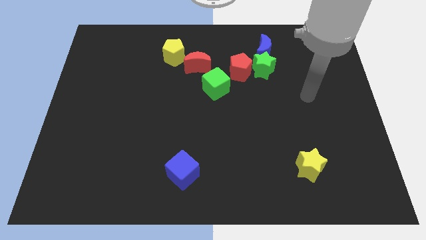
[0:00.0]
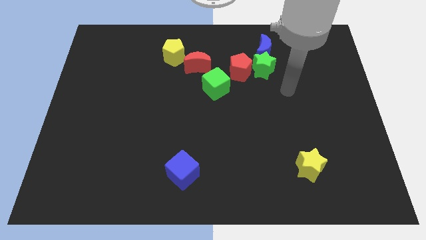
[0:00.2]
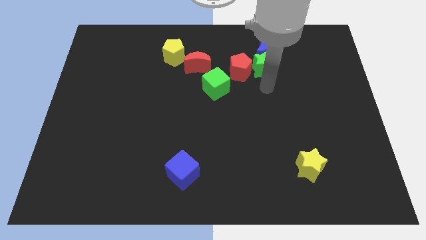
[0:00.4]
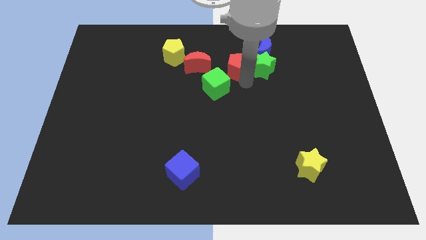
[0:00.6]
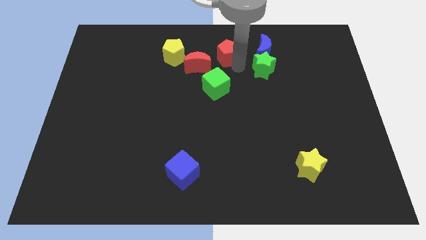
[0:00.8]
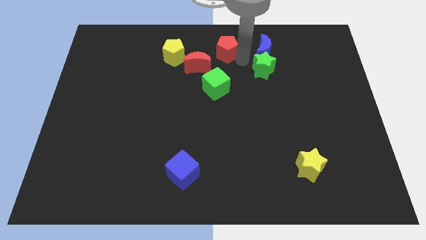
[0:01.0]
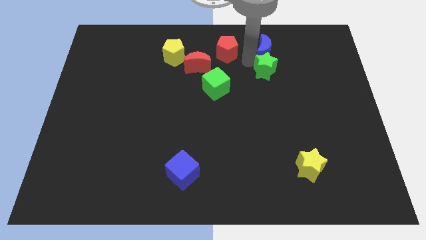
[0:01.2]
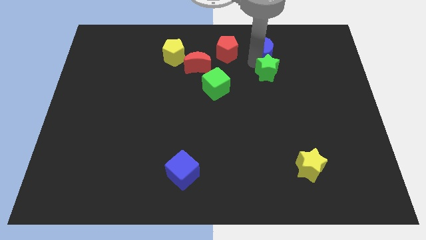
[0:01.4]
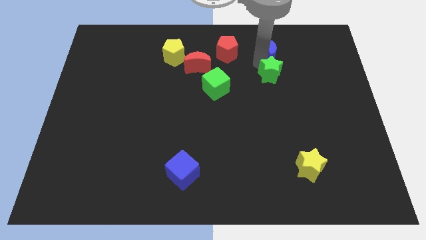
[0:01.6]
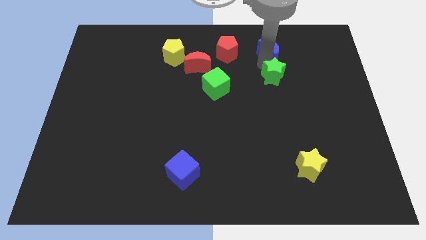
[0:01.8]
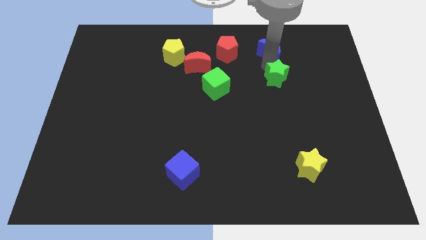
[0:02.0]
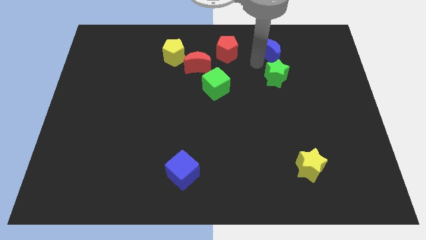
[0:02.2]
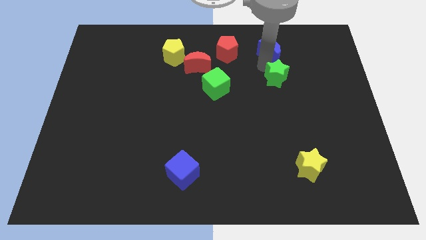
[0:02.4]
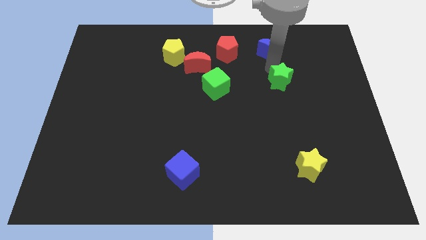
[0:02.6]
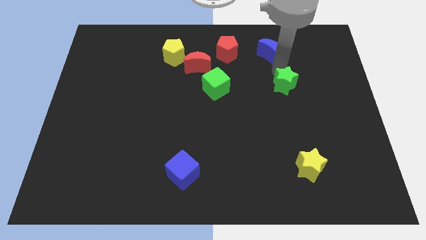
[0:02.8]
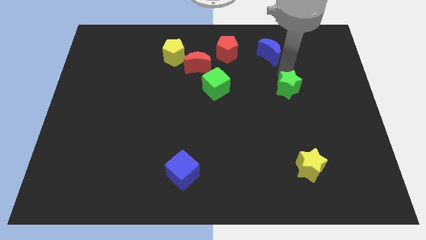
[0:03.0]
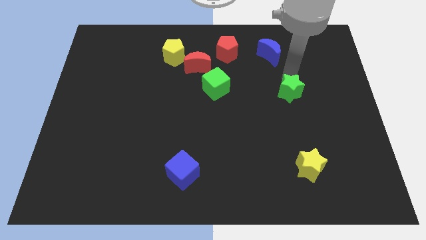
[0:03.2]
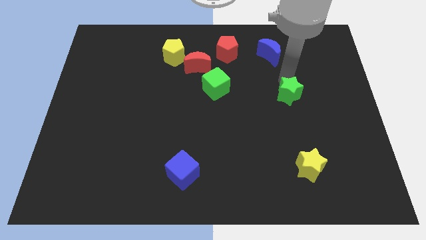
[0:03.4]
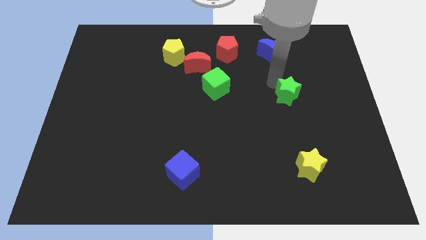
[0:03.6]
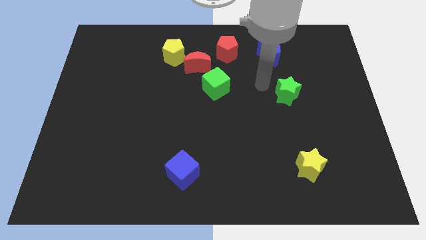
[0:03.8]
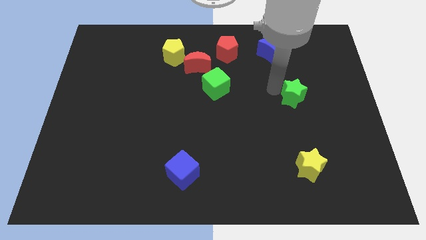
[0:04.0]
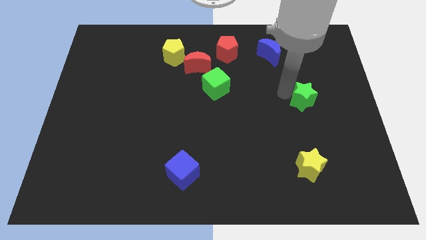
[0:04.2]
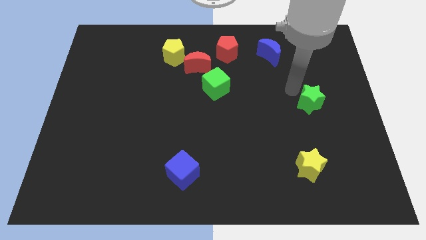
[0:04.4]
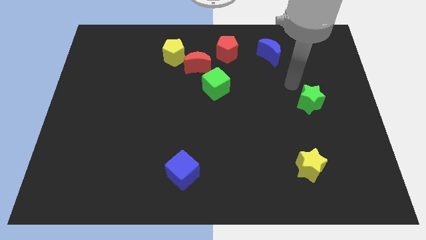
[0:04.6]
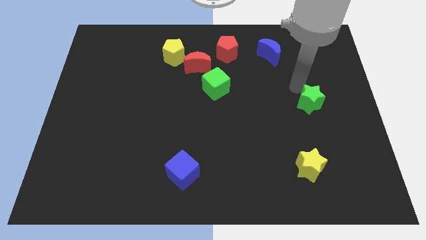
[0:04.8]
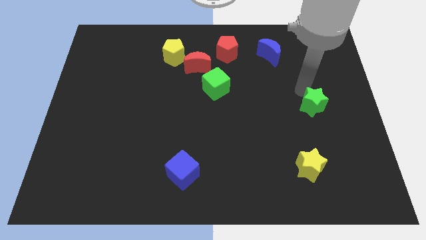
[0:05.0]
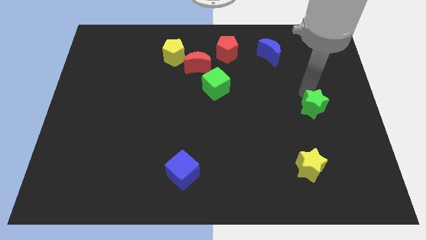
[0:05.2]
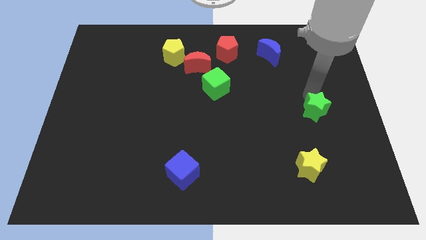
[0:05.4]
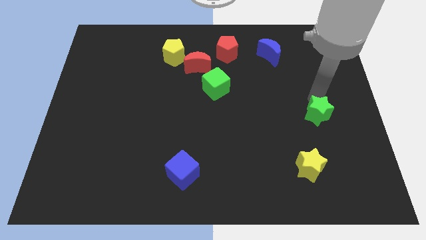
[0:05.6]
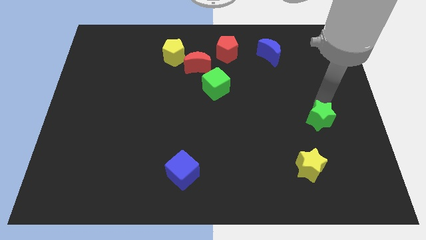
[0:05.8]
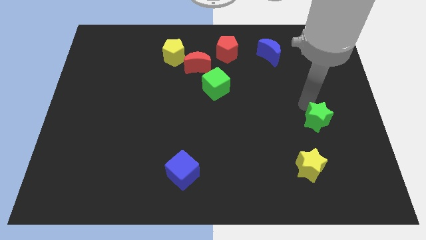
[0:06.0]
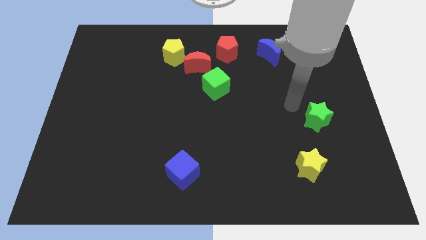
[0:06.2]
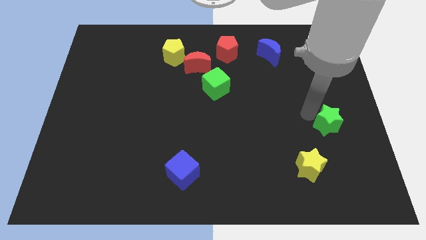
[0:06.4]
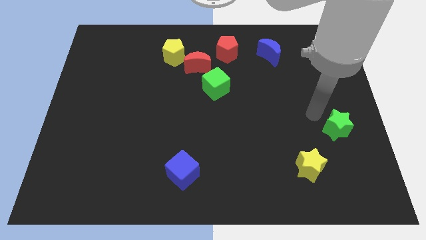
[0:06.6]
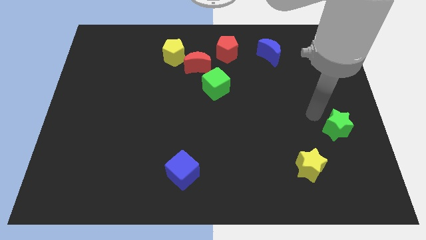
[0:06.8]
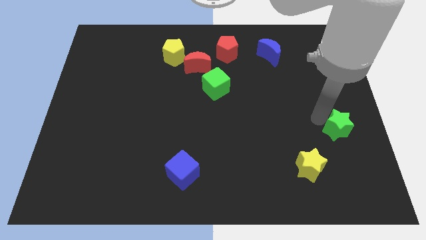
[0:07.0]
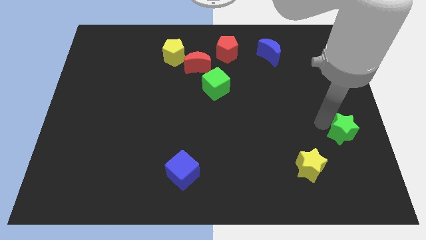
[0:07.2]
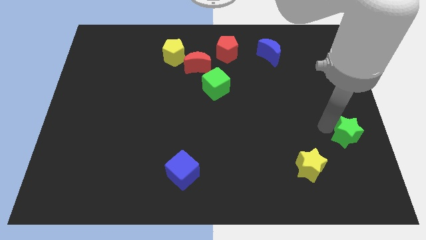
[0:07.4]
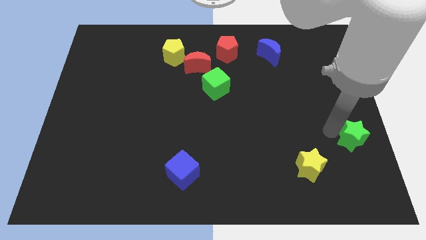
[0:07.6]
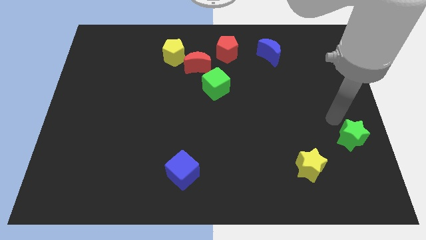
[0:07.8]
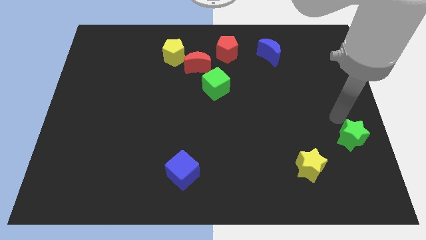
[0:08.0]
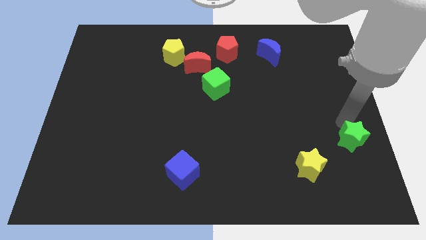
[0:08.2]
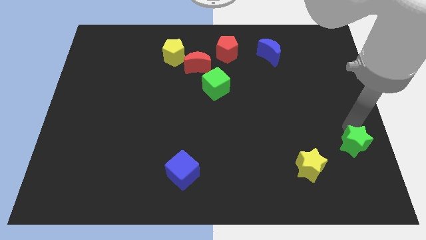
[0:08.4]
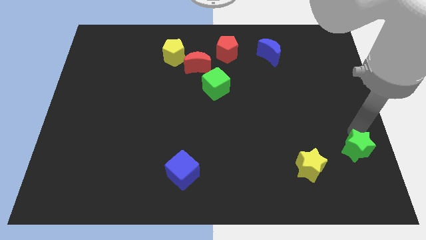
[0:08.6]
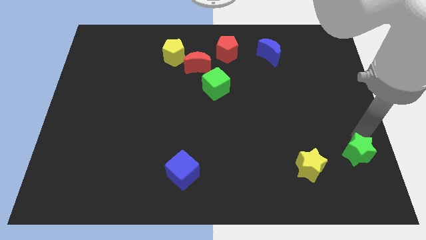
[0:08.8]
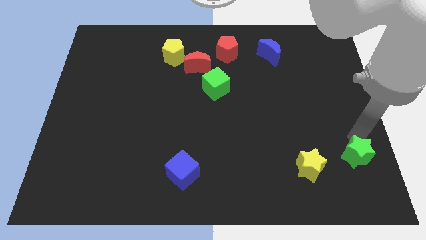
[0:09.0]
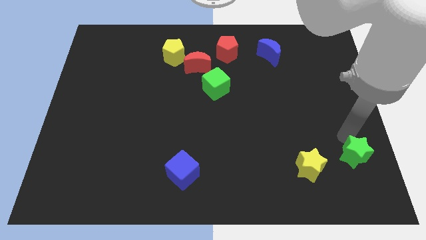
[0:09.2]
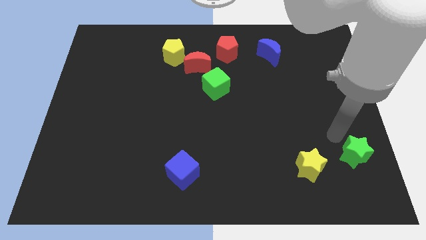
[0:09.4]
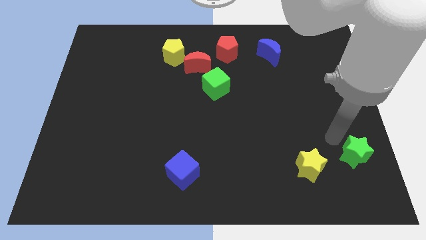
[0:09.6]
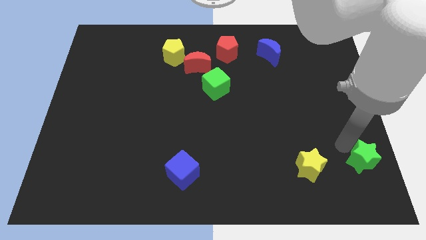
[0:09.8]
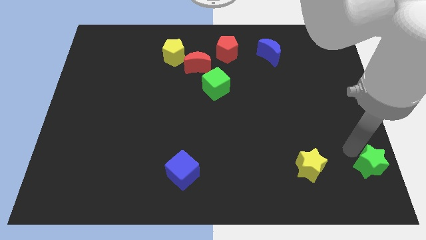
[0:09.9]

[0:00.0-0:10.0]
move the green star to the lower right corner

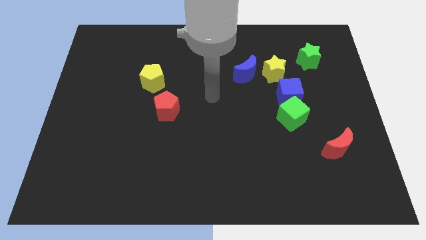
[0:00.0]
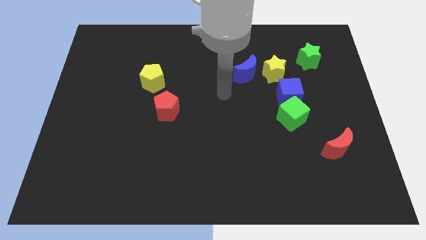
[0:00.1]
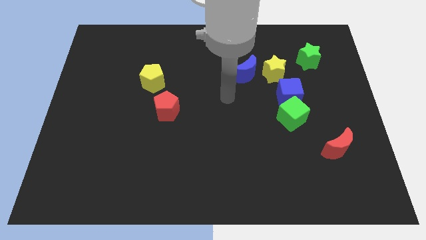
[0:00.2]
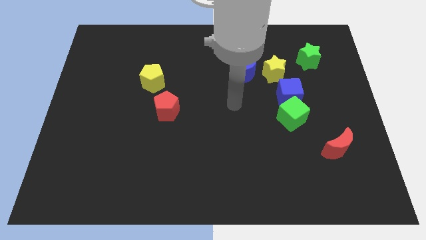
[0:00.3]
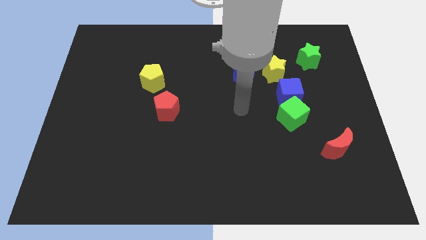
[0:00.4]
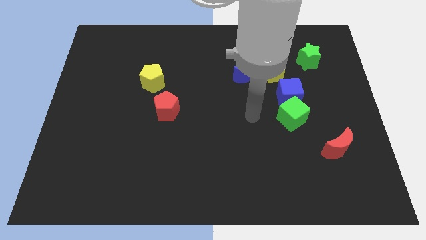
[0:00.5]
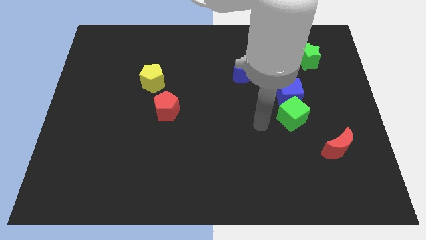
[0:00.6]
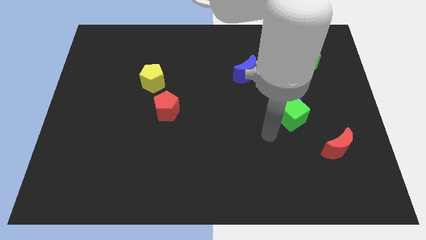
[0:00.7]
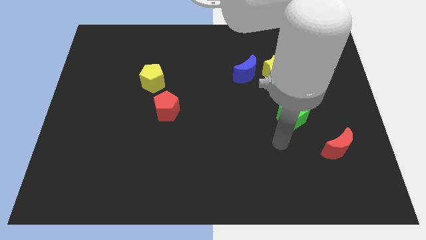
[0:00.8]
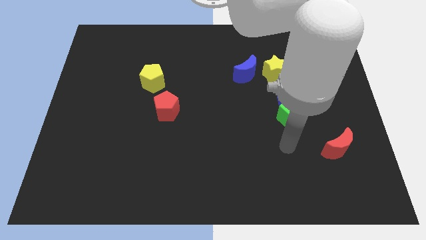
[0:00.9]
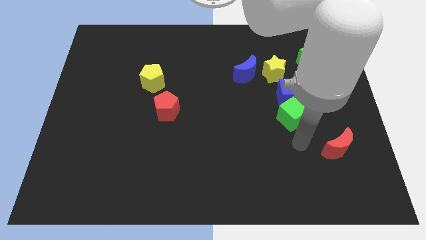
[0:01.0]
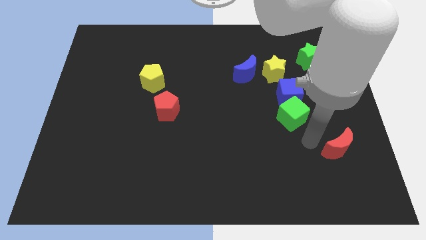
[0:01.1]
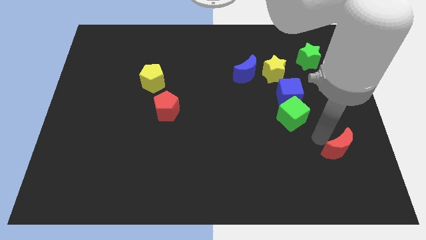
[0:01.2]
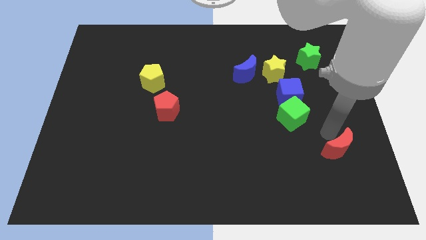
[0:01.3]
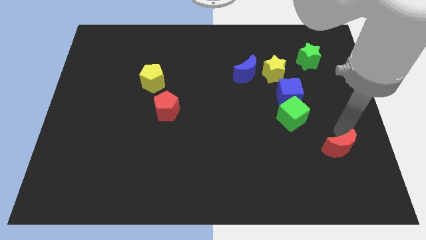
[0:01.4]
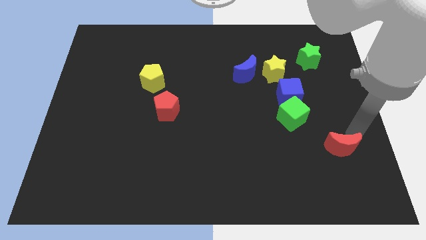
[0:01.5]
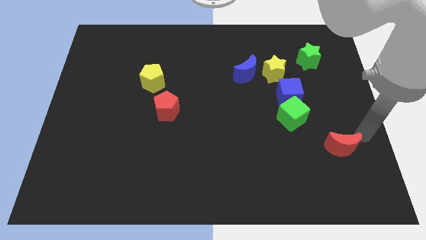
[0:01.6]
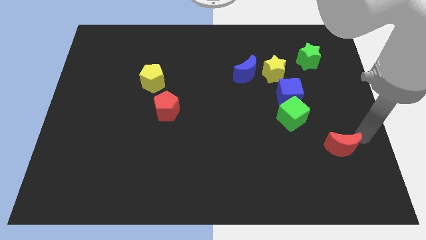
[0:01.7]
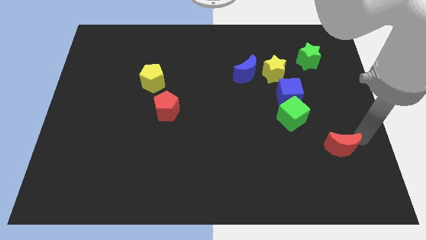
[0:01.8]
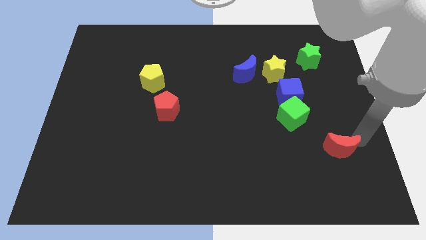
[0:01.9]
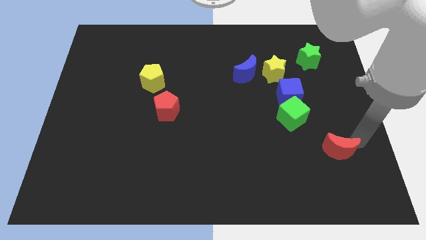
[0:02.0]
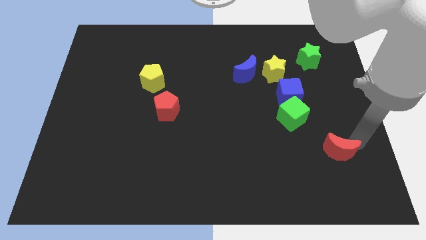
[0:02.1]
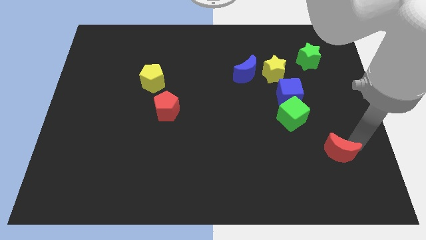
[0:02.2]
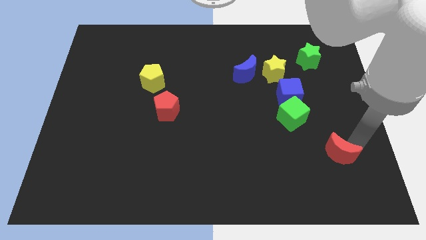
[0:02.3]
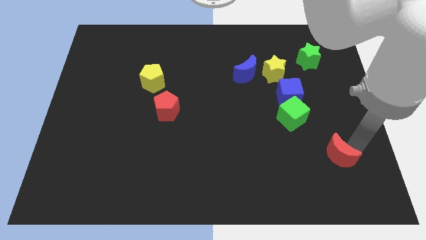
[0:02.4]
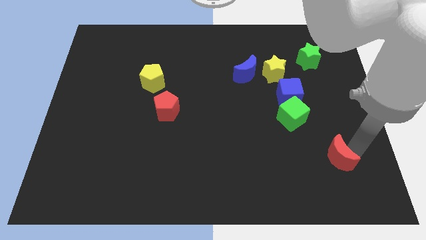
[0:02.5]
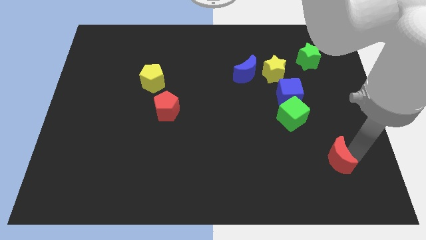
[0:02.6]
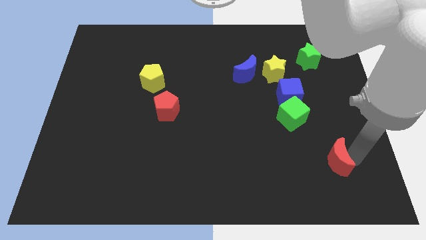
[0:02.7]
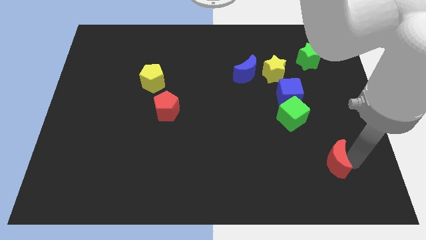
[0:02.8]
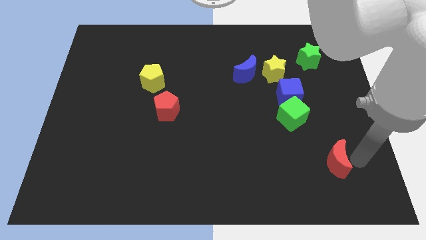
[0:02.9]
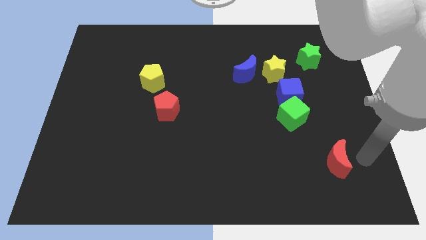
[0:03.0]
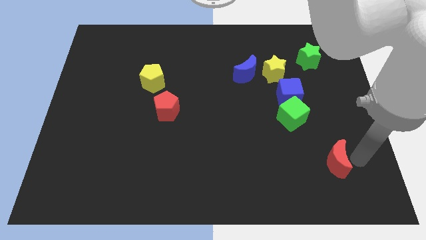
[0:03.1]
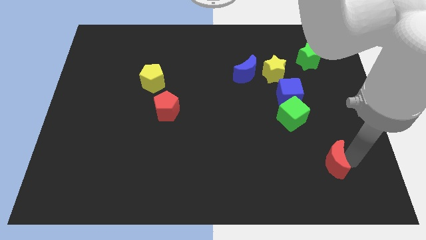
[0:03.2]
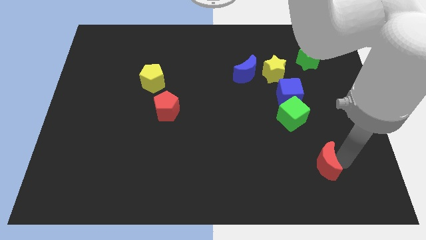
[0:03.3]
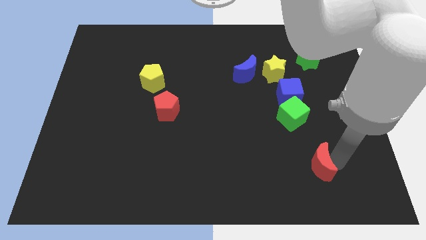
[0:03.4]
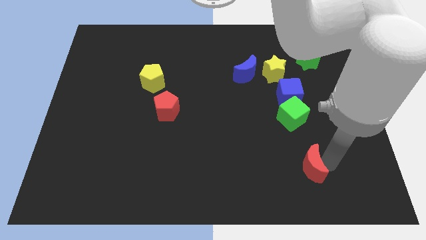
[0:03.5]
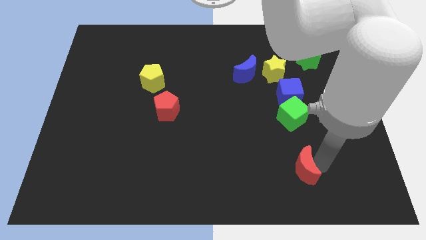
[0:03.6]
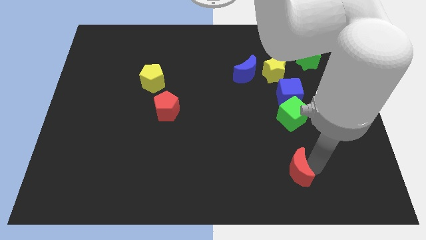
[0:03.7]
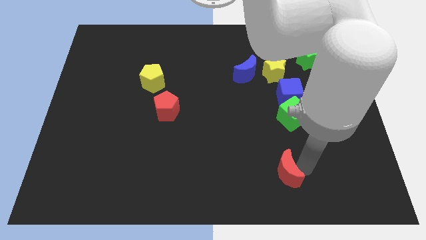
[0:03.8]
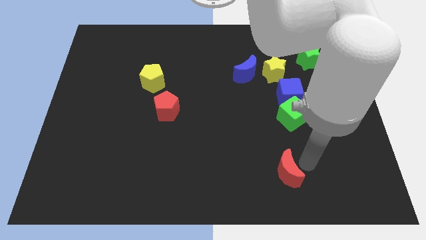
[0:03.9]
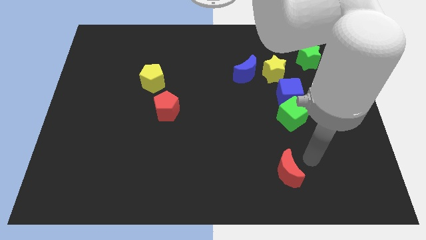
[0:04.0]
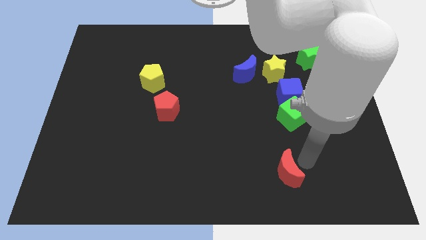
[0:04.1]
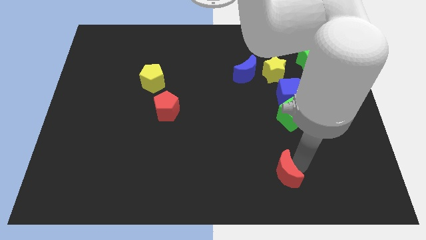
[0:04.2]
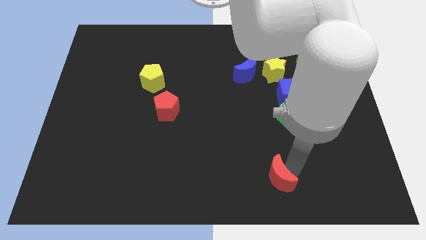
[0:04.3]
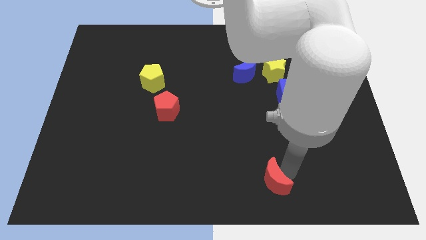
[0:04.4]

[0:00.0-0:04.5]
put the red moon to the bottom side
